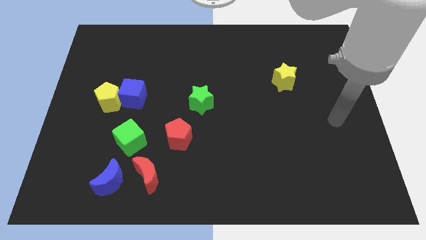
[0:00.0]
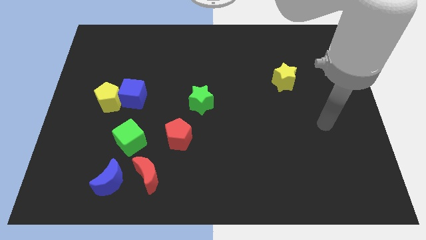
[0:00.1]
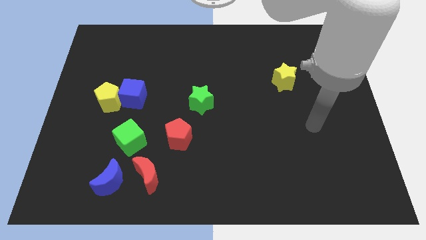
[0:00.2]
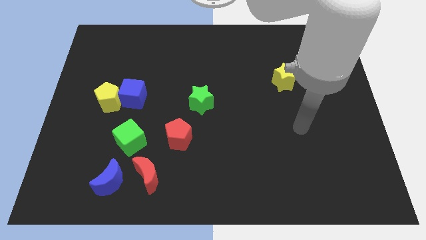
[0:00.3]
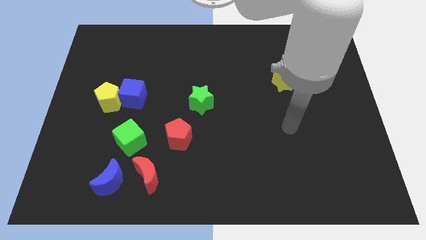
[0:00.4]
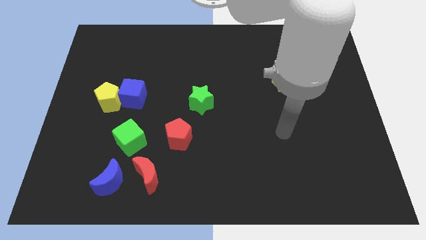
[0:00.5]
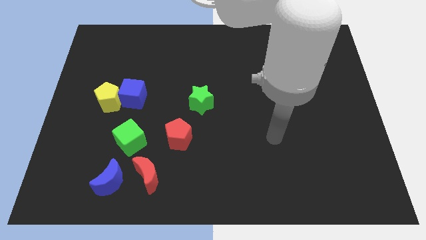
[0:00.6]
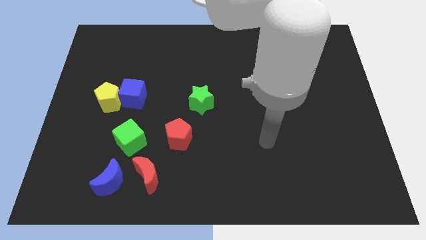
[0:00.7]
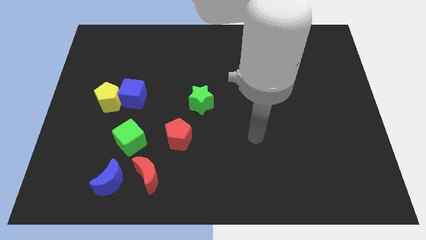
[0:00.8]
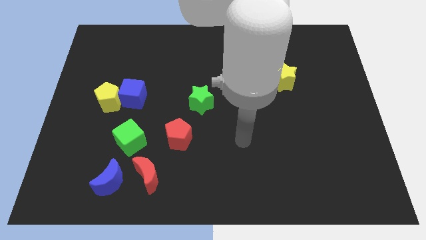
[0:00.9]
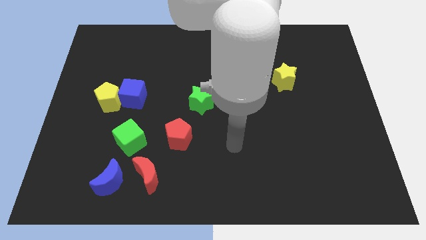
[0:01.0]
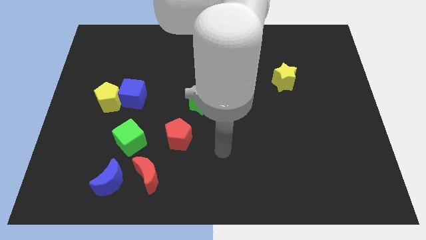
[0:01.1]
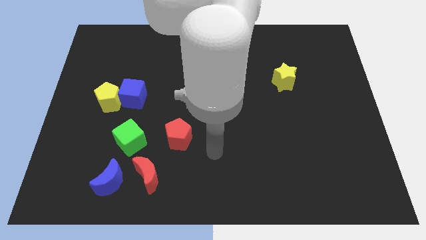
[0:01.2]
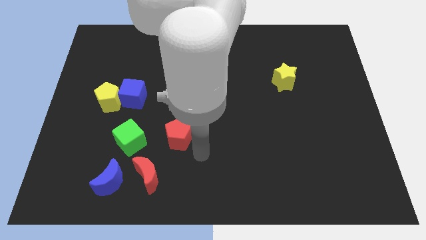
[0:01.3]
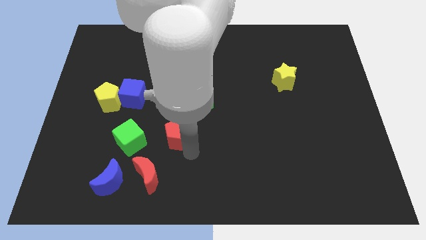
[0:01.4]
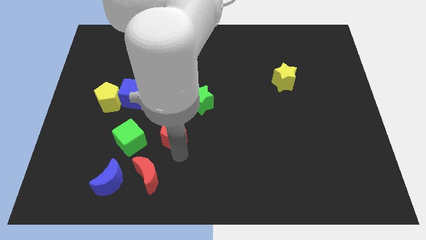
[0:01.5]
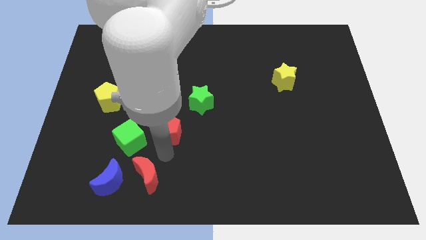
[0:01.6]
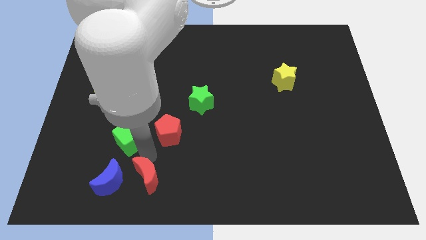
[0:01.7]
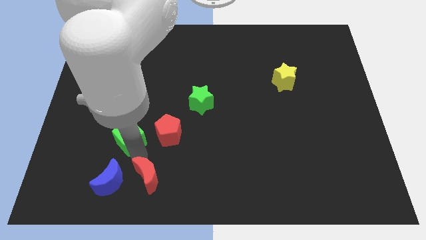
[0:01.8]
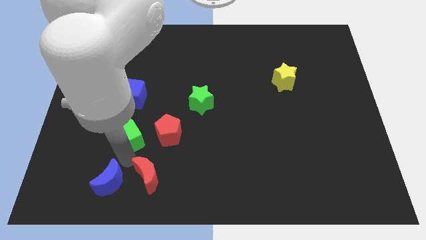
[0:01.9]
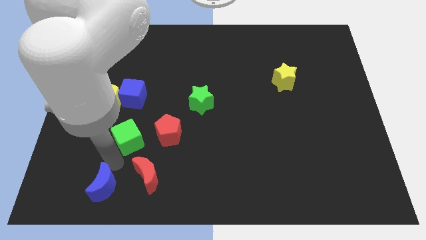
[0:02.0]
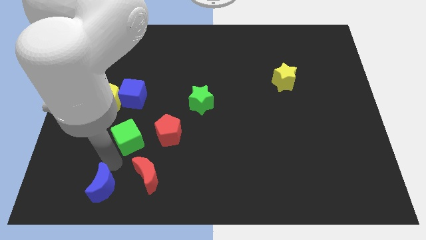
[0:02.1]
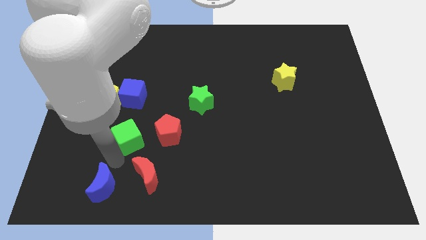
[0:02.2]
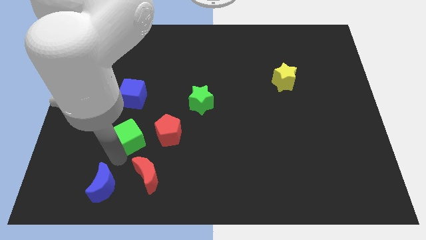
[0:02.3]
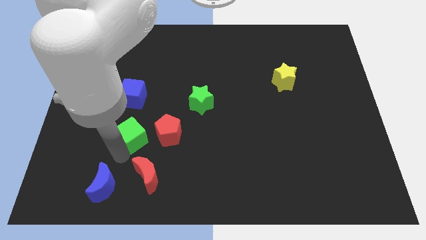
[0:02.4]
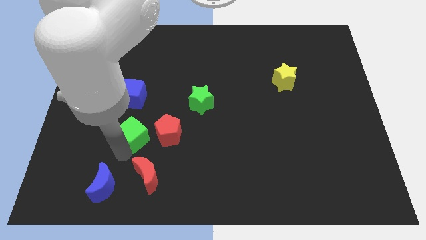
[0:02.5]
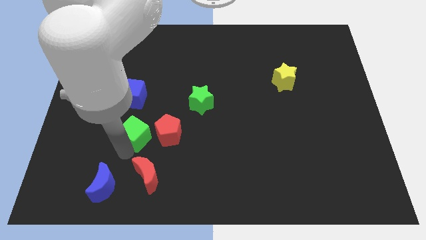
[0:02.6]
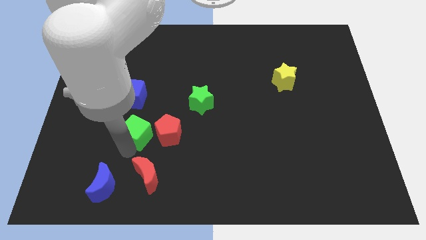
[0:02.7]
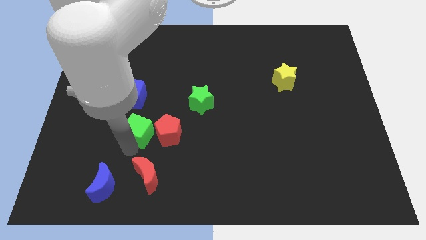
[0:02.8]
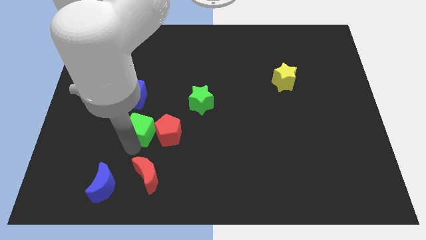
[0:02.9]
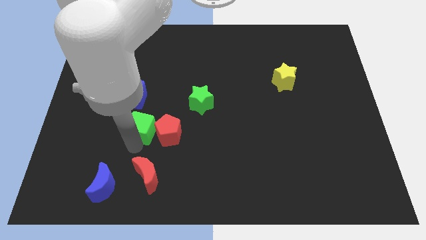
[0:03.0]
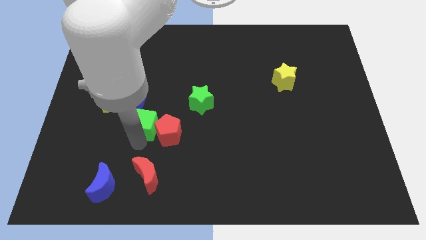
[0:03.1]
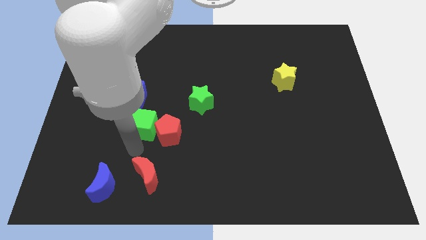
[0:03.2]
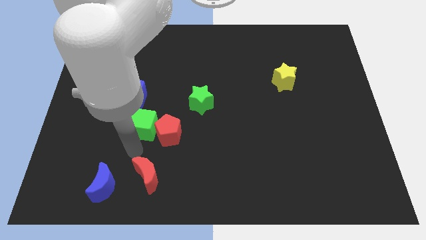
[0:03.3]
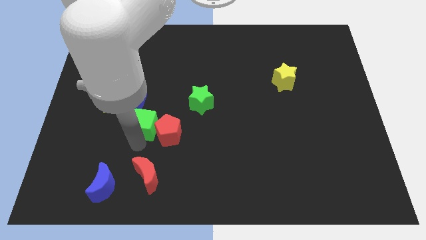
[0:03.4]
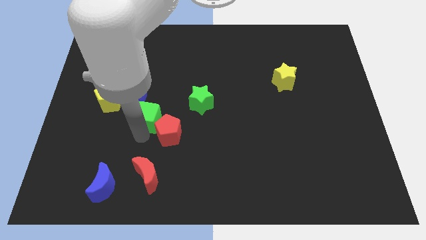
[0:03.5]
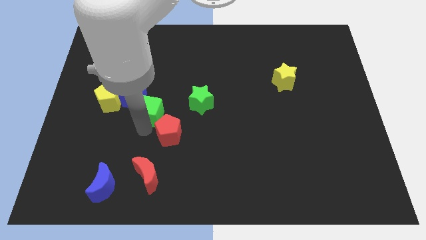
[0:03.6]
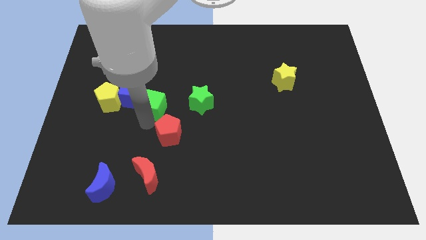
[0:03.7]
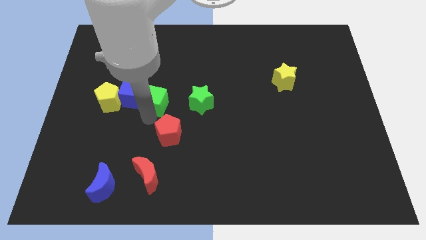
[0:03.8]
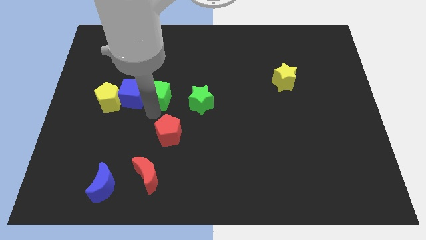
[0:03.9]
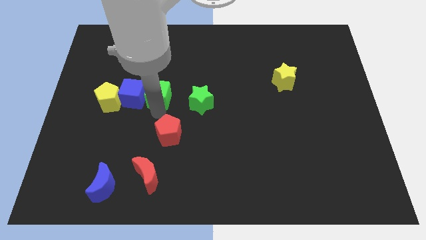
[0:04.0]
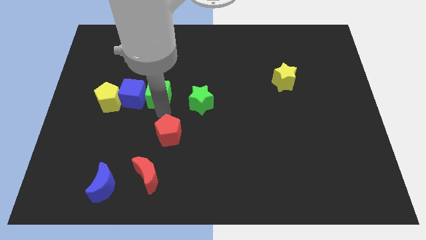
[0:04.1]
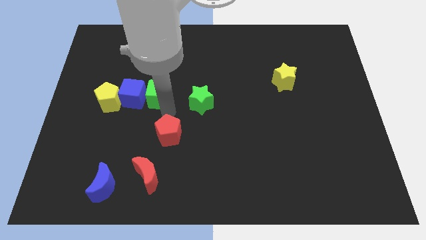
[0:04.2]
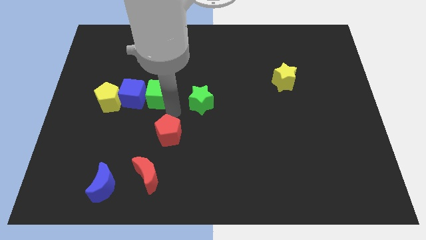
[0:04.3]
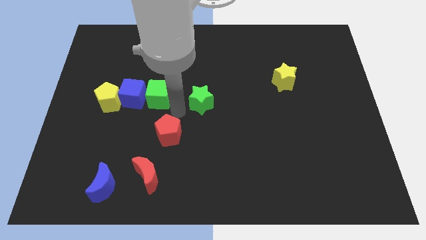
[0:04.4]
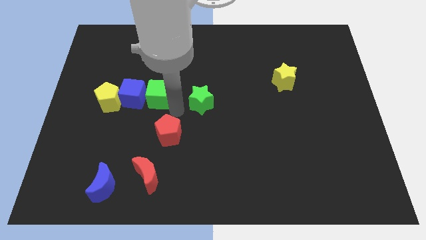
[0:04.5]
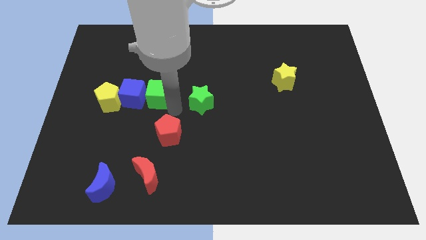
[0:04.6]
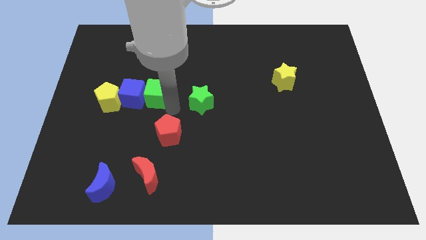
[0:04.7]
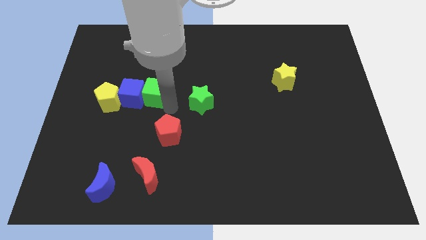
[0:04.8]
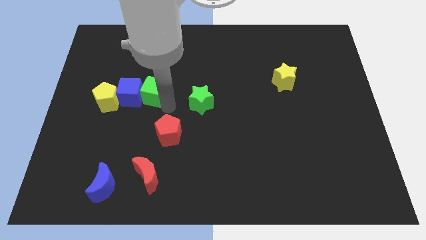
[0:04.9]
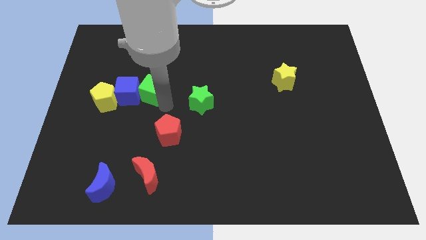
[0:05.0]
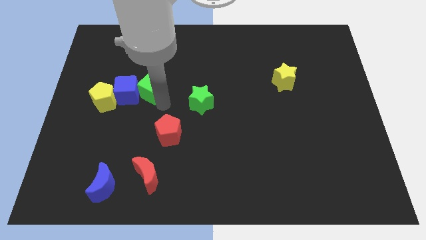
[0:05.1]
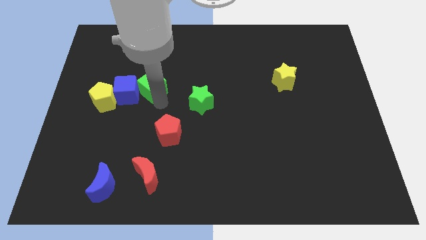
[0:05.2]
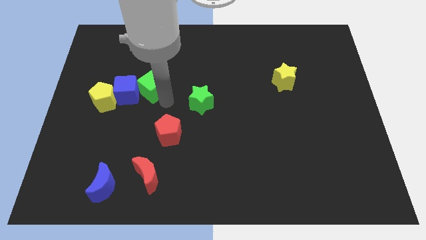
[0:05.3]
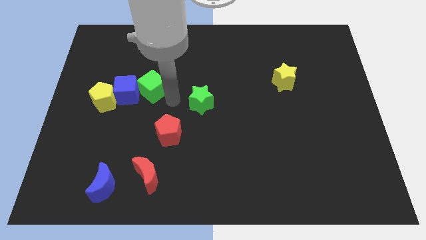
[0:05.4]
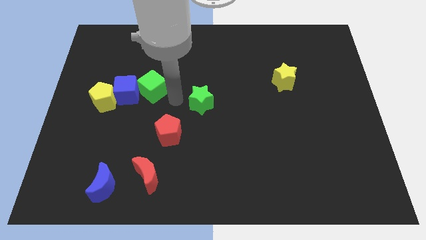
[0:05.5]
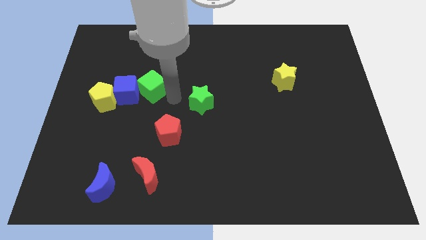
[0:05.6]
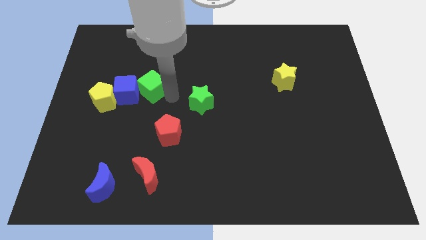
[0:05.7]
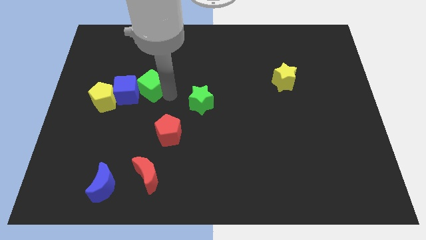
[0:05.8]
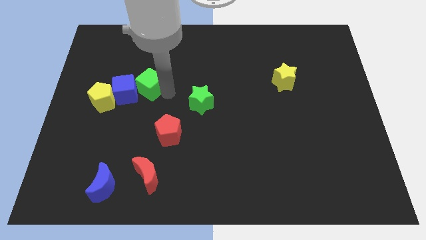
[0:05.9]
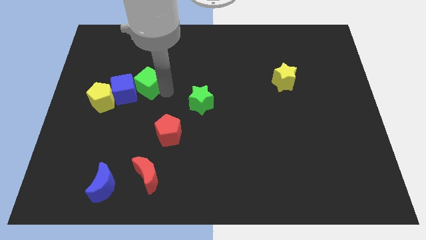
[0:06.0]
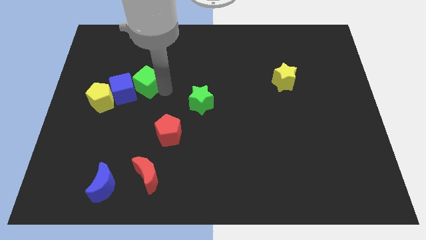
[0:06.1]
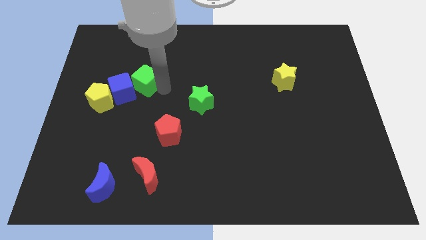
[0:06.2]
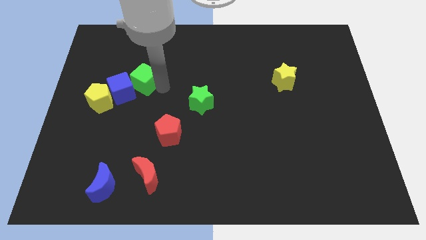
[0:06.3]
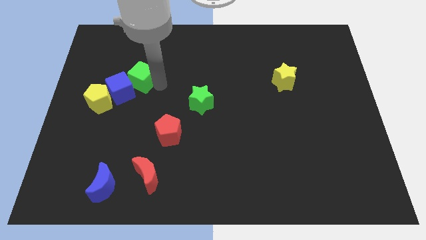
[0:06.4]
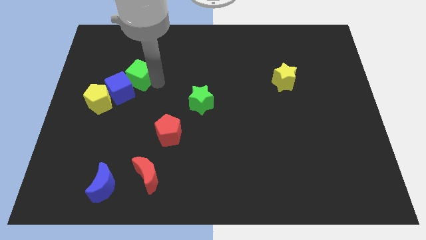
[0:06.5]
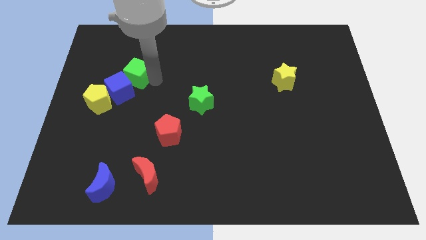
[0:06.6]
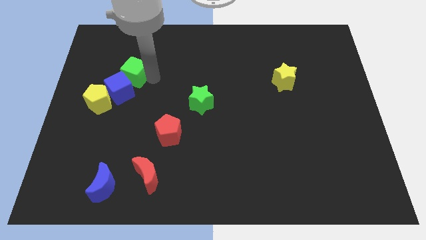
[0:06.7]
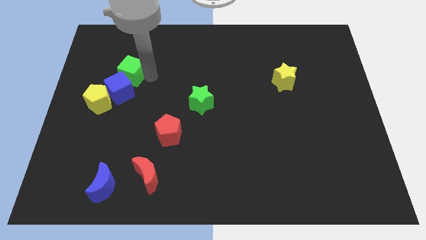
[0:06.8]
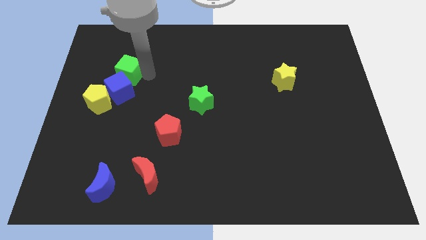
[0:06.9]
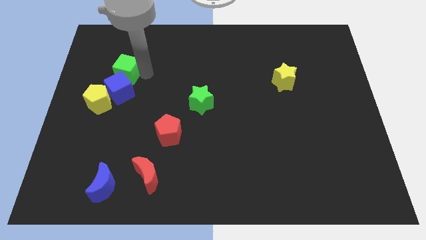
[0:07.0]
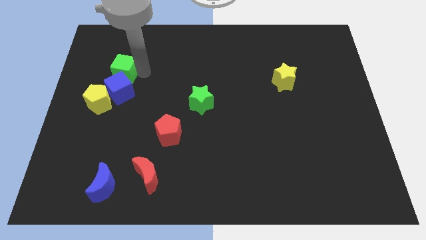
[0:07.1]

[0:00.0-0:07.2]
push the green cube above the yellow pentagon
